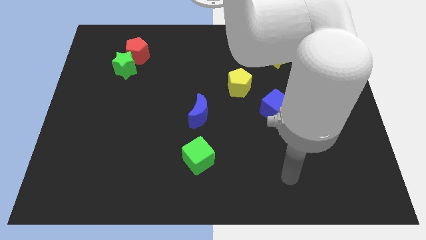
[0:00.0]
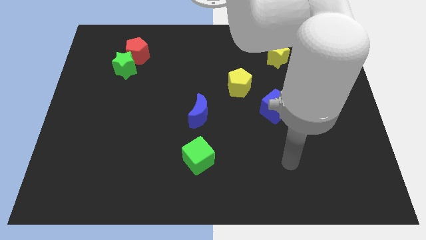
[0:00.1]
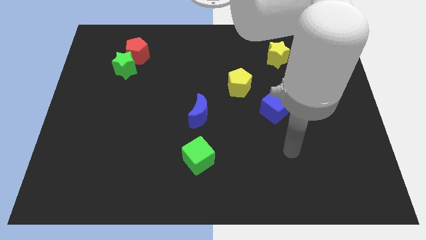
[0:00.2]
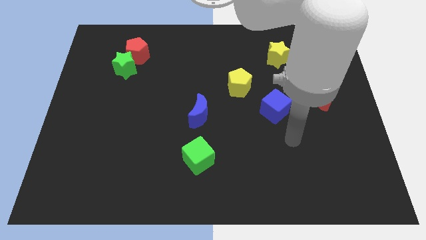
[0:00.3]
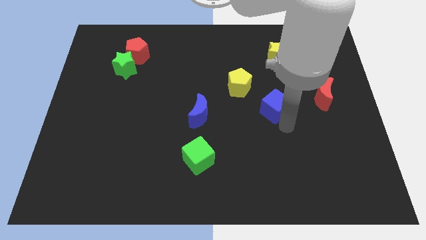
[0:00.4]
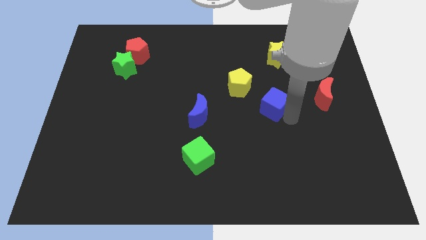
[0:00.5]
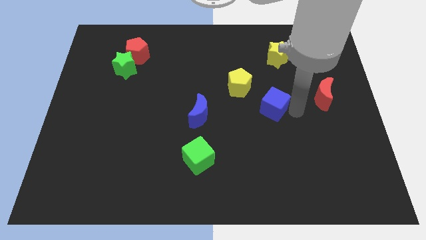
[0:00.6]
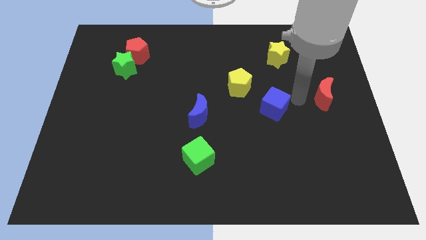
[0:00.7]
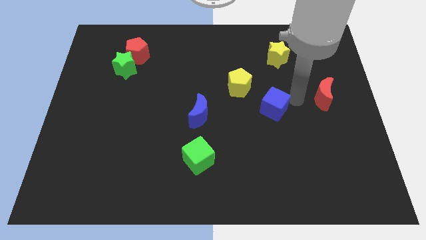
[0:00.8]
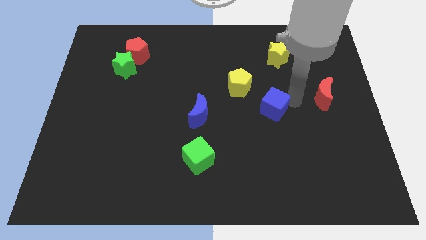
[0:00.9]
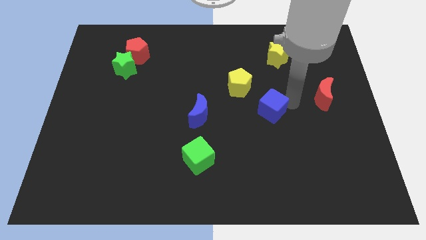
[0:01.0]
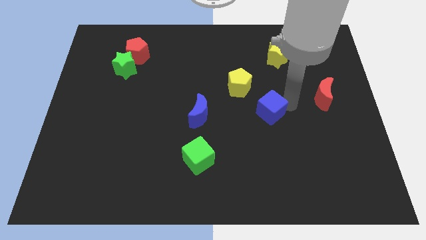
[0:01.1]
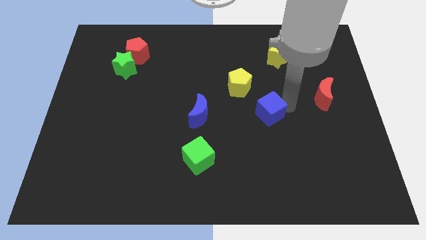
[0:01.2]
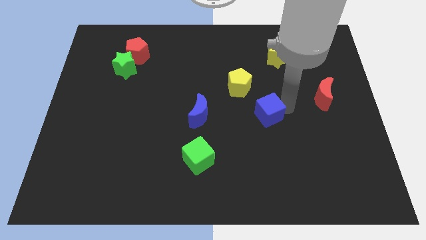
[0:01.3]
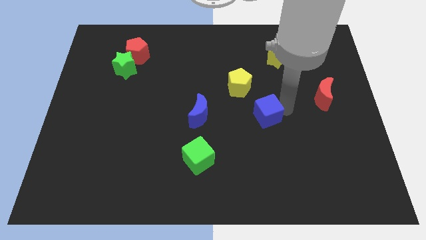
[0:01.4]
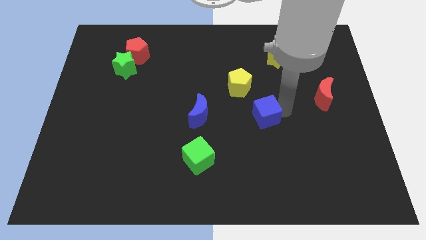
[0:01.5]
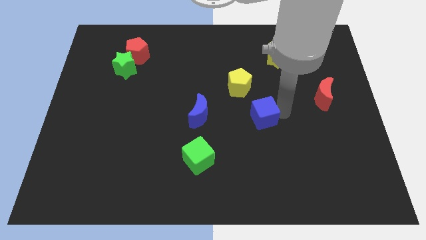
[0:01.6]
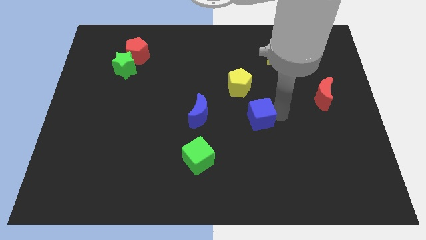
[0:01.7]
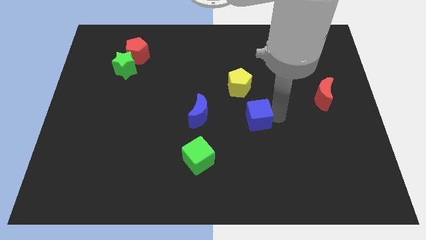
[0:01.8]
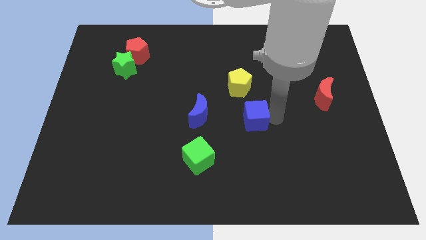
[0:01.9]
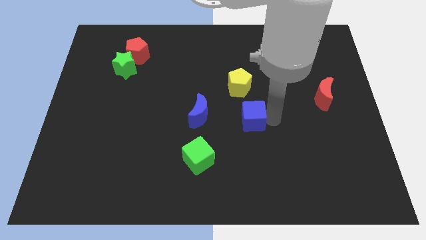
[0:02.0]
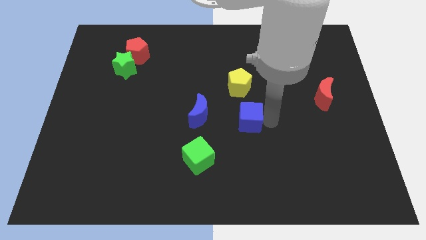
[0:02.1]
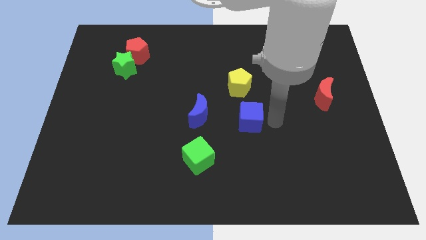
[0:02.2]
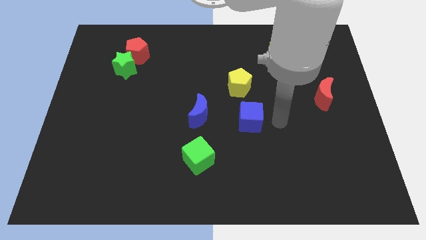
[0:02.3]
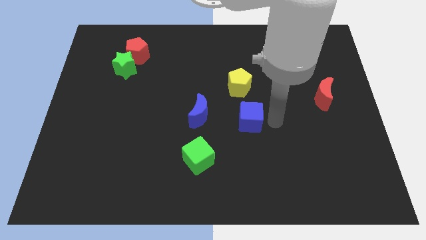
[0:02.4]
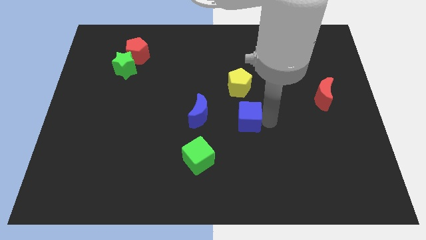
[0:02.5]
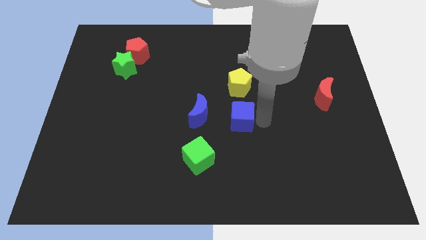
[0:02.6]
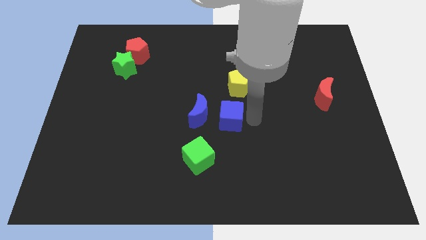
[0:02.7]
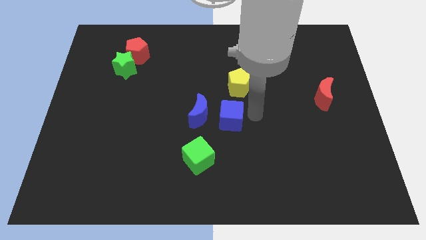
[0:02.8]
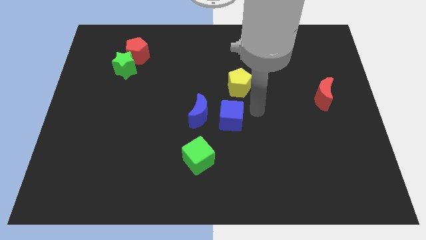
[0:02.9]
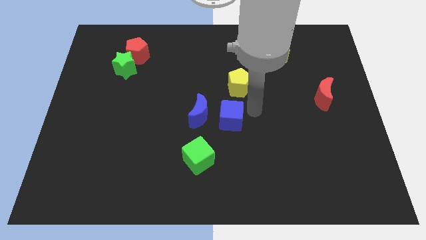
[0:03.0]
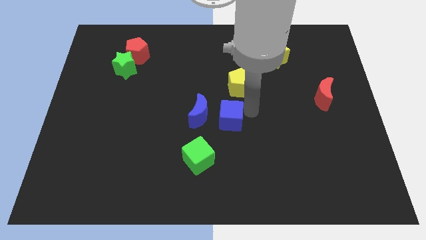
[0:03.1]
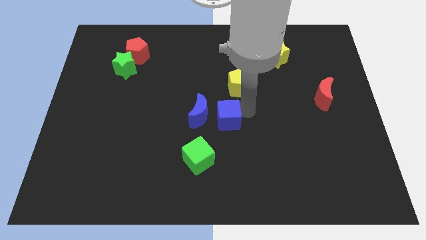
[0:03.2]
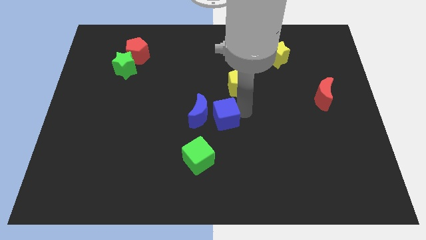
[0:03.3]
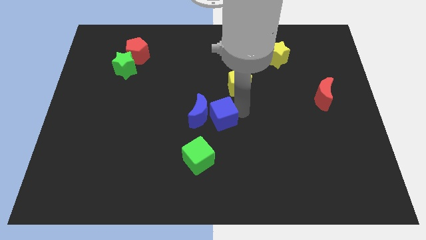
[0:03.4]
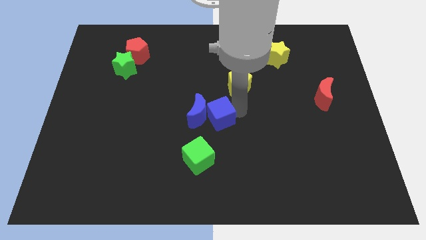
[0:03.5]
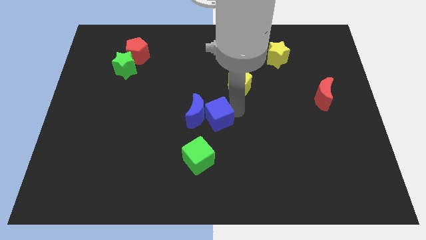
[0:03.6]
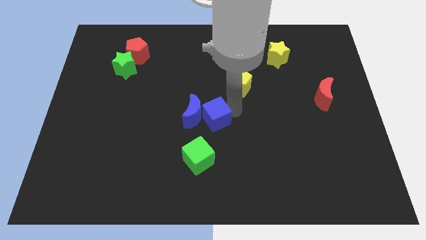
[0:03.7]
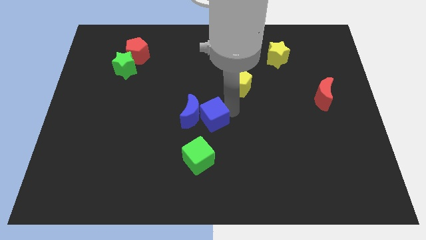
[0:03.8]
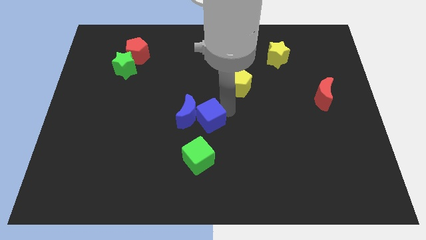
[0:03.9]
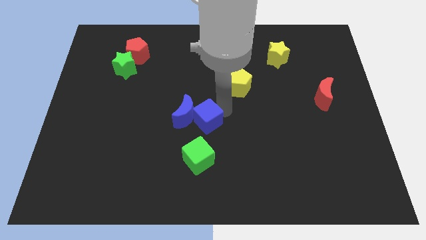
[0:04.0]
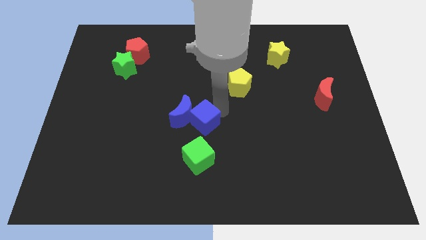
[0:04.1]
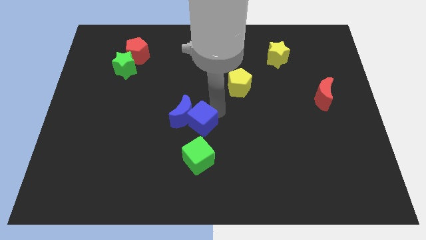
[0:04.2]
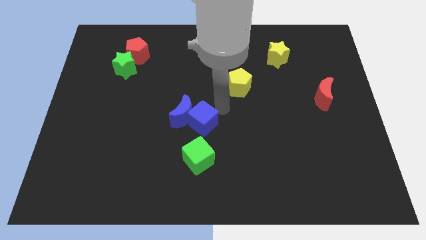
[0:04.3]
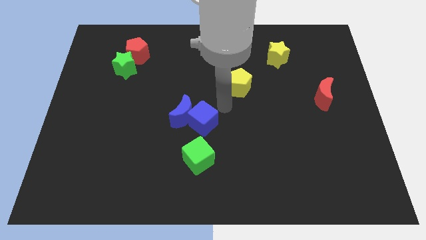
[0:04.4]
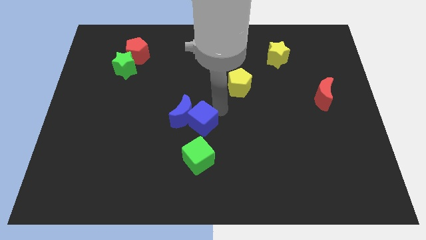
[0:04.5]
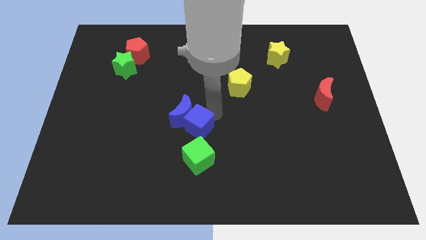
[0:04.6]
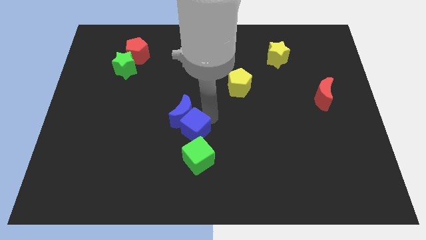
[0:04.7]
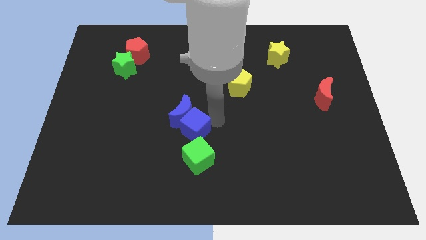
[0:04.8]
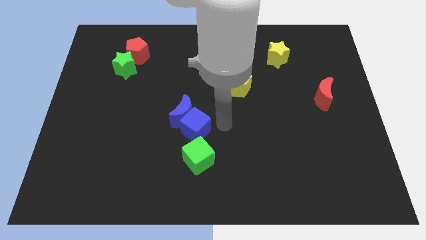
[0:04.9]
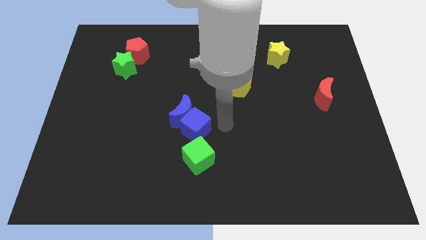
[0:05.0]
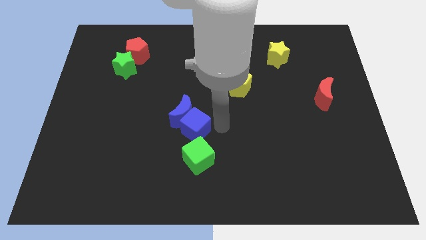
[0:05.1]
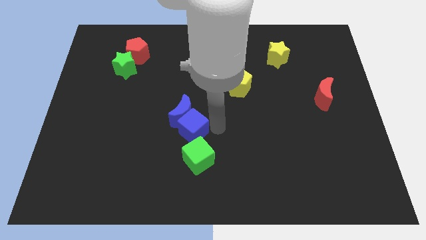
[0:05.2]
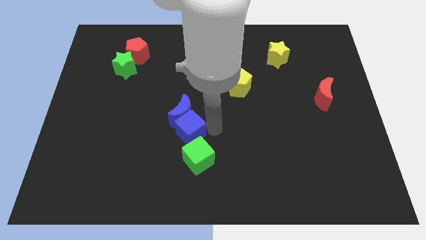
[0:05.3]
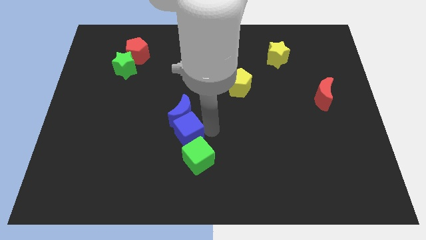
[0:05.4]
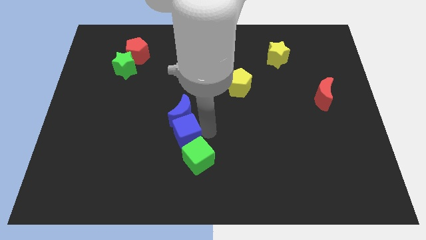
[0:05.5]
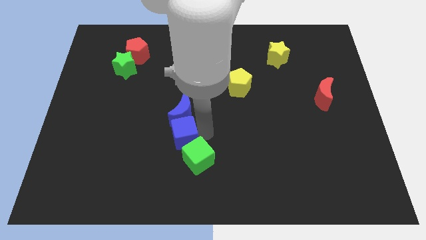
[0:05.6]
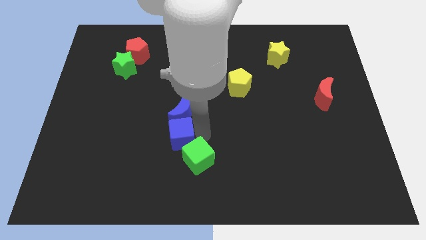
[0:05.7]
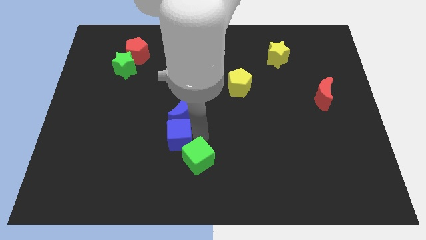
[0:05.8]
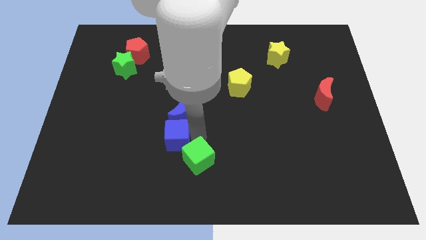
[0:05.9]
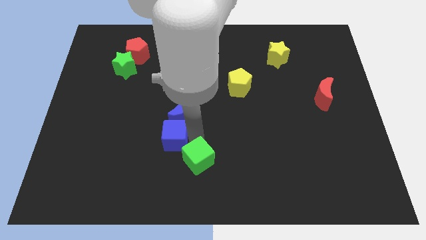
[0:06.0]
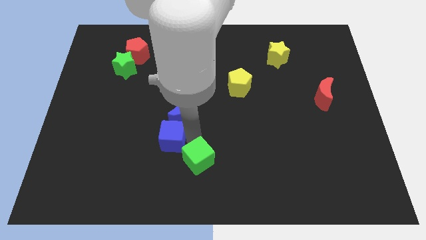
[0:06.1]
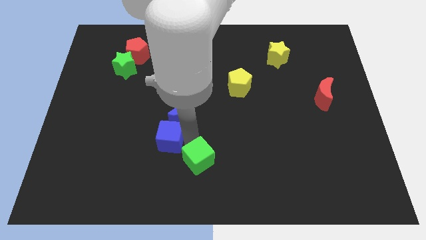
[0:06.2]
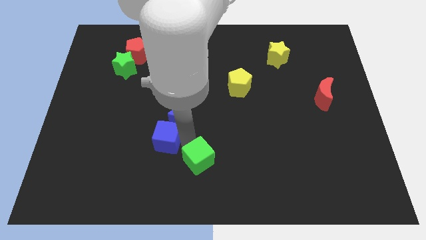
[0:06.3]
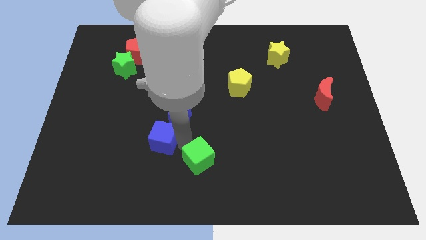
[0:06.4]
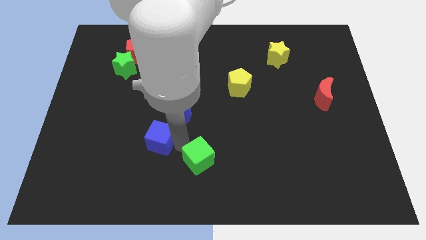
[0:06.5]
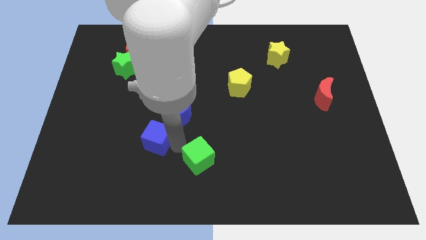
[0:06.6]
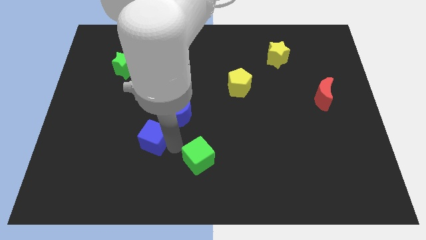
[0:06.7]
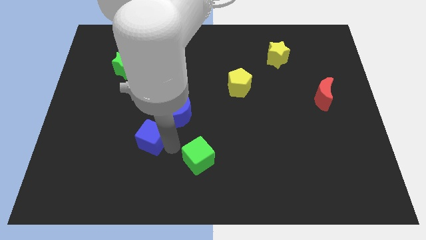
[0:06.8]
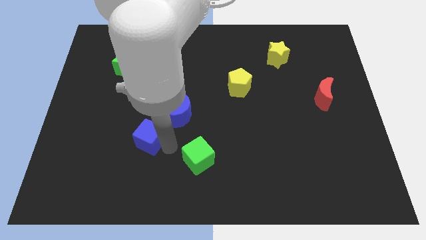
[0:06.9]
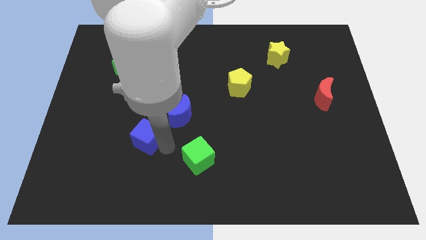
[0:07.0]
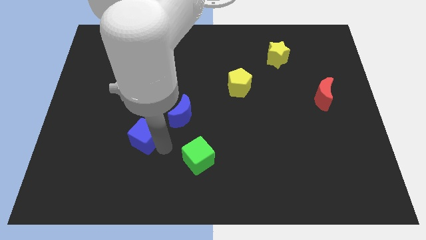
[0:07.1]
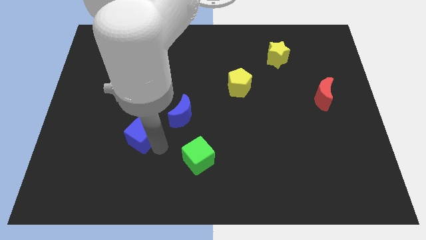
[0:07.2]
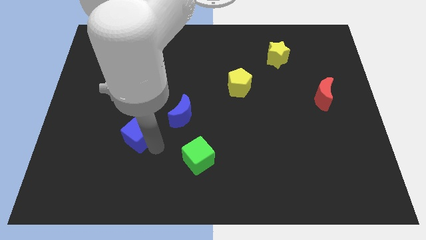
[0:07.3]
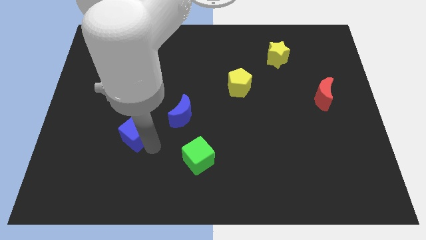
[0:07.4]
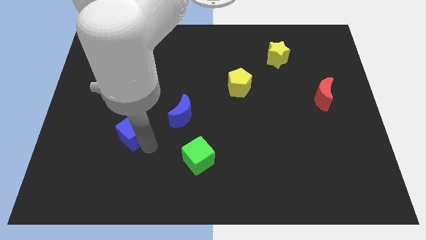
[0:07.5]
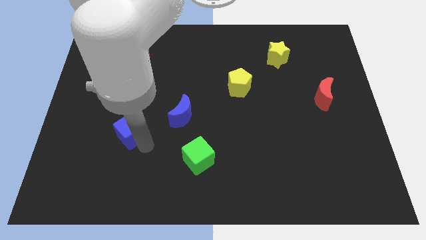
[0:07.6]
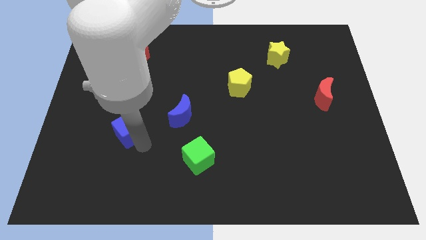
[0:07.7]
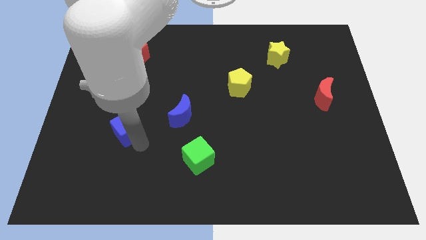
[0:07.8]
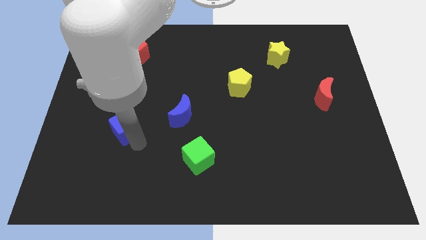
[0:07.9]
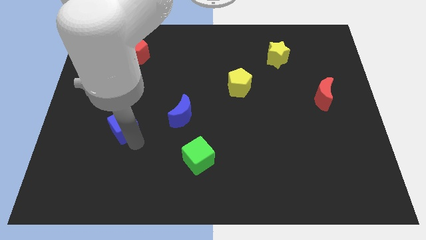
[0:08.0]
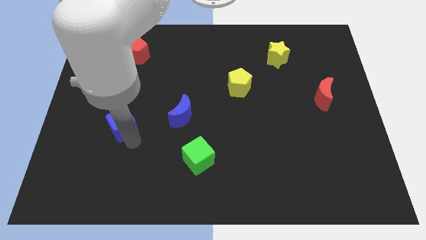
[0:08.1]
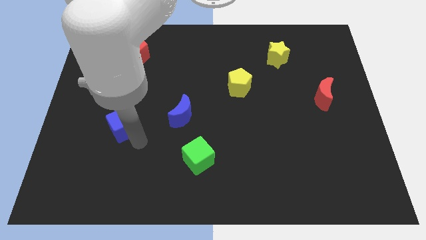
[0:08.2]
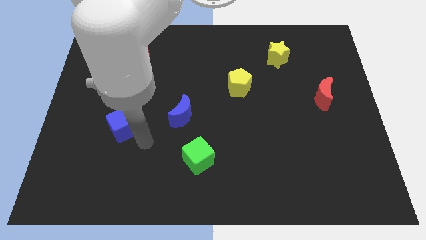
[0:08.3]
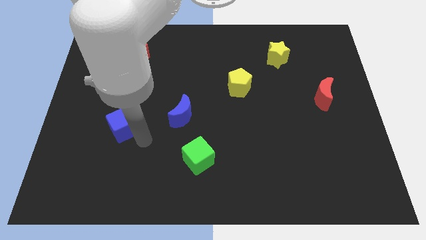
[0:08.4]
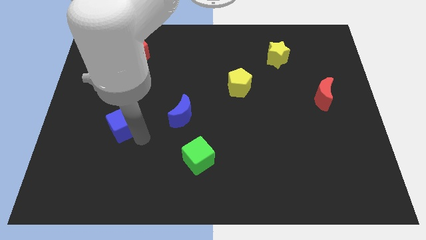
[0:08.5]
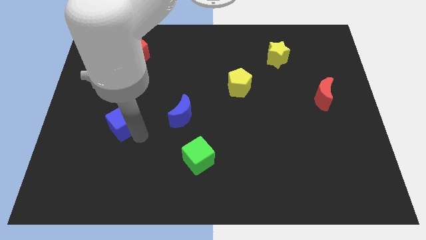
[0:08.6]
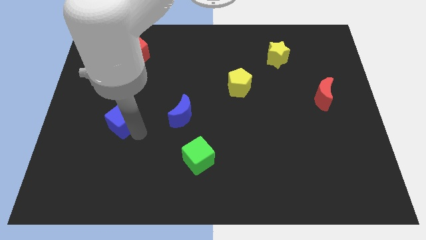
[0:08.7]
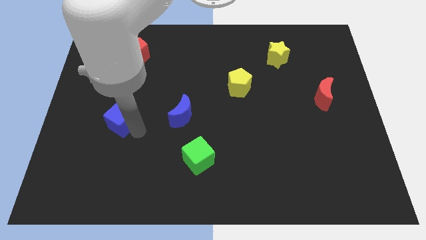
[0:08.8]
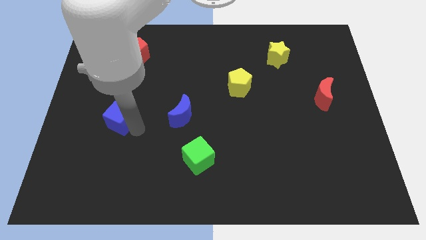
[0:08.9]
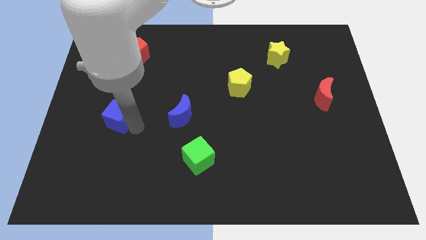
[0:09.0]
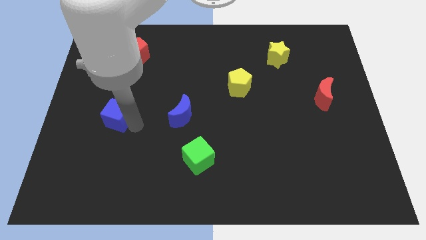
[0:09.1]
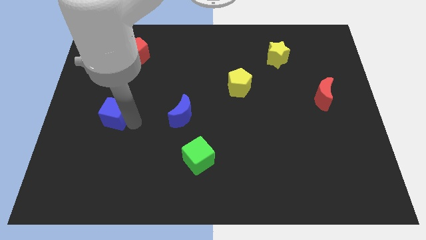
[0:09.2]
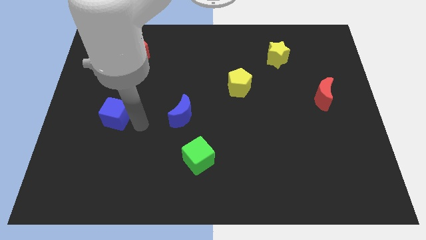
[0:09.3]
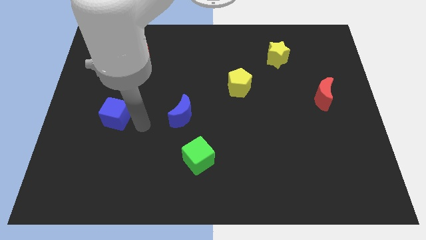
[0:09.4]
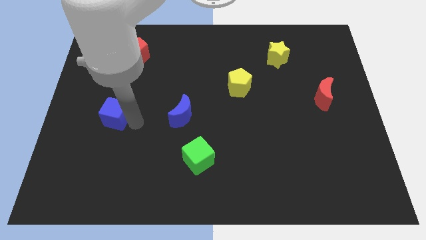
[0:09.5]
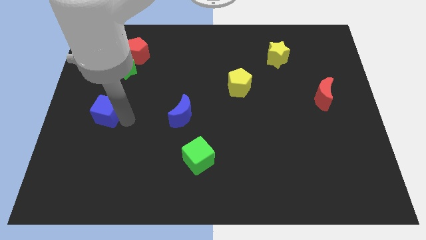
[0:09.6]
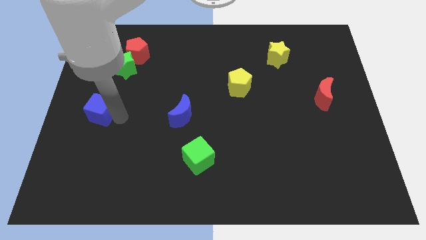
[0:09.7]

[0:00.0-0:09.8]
slide the blue cube to the center left
